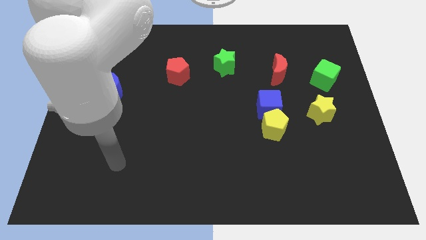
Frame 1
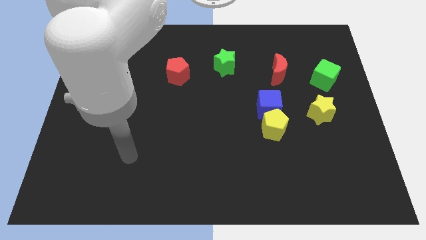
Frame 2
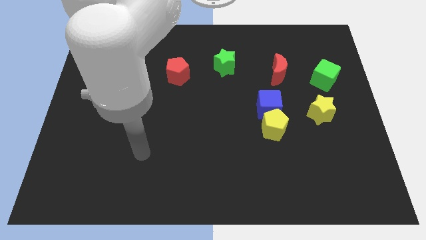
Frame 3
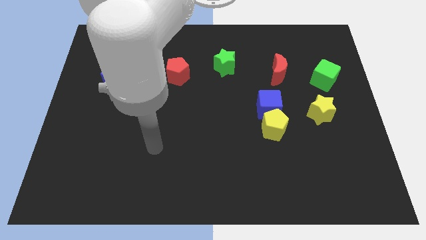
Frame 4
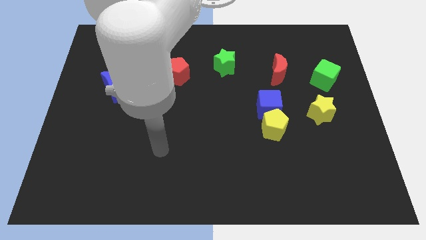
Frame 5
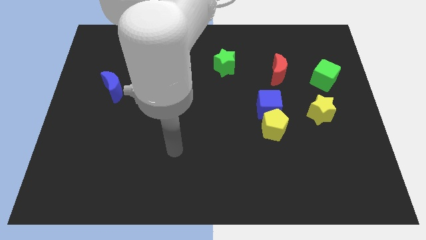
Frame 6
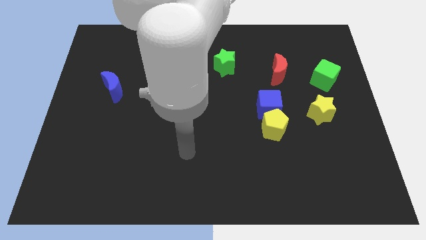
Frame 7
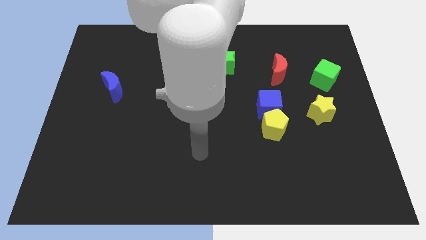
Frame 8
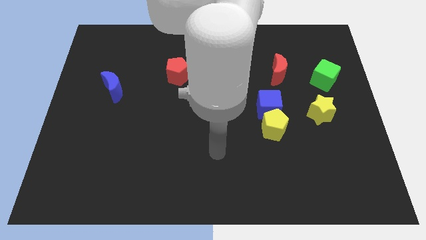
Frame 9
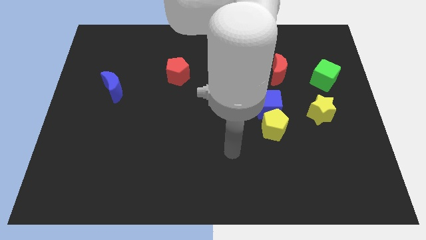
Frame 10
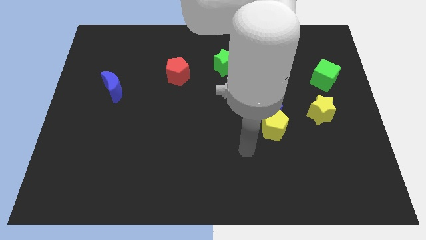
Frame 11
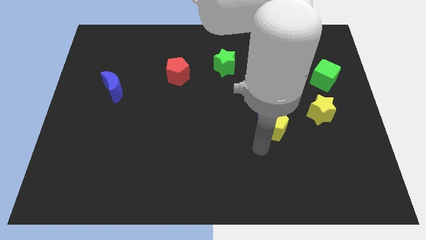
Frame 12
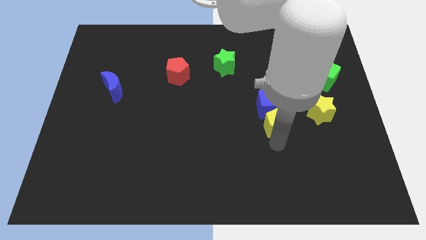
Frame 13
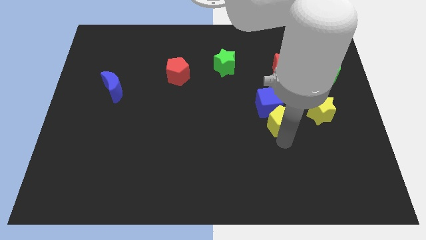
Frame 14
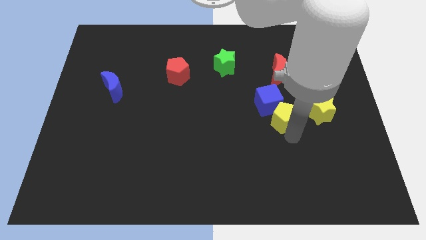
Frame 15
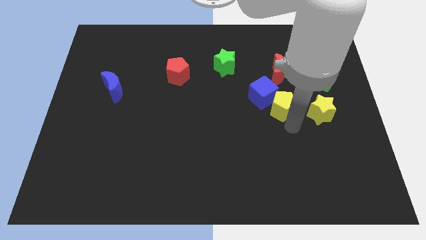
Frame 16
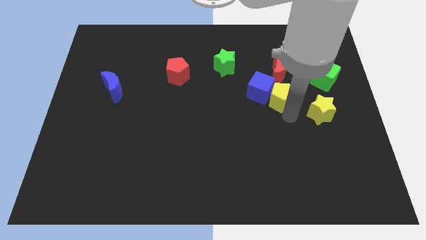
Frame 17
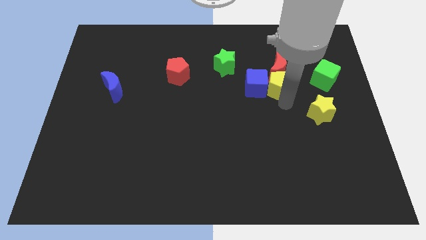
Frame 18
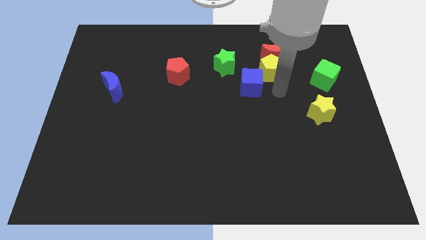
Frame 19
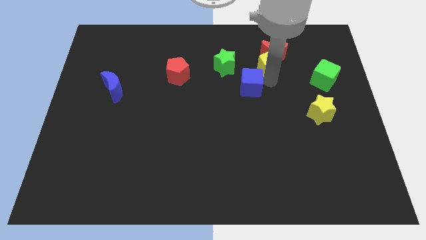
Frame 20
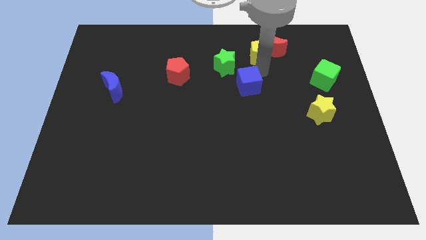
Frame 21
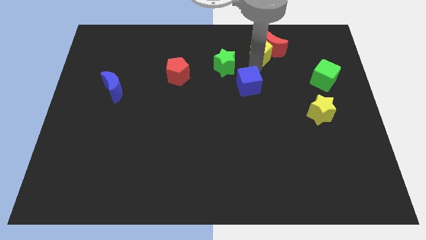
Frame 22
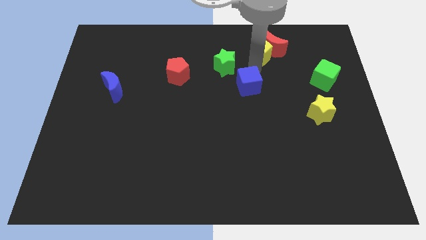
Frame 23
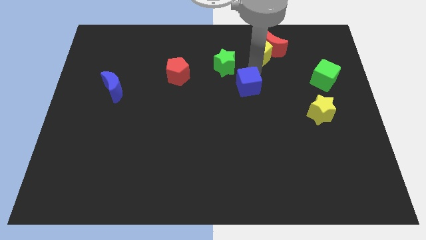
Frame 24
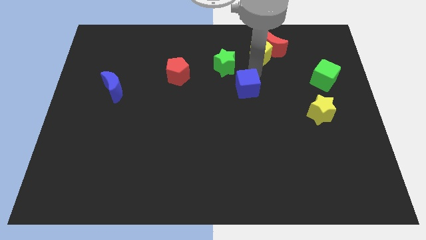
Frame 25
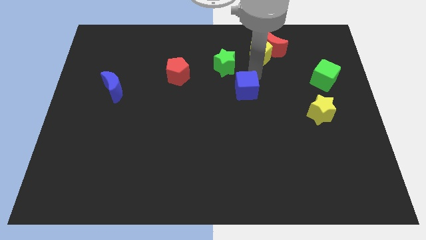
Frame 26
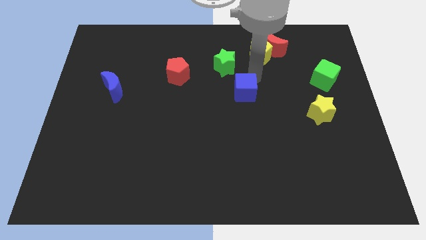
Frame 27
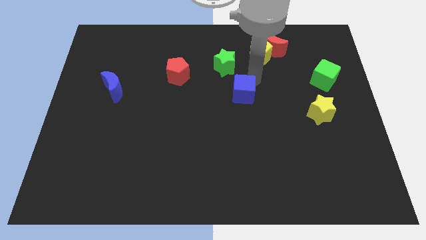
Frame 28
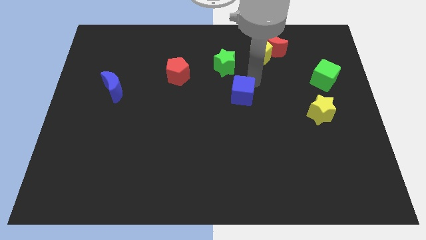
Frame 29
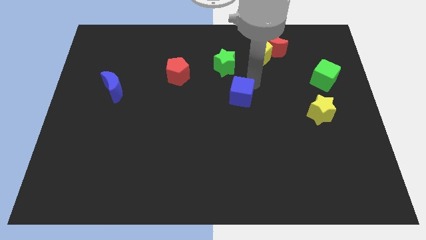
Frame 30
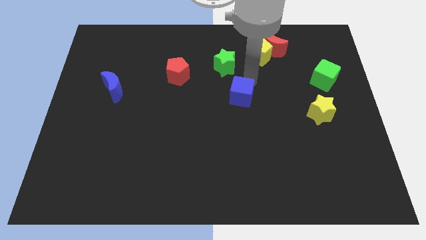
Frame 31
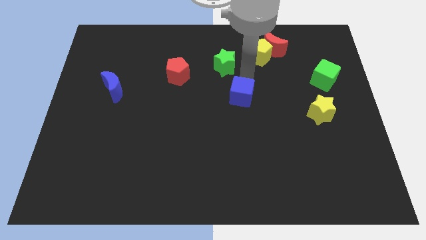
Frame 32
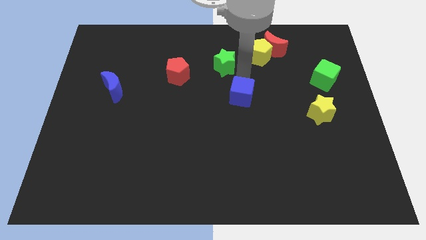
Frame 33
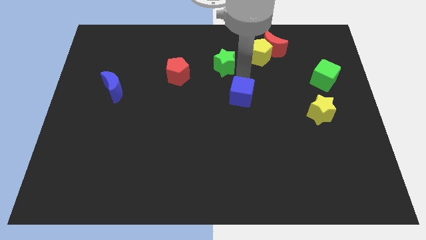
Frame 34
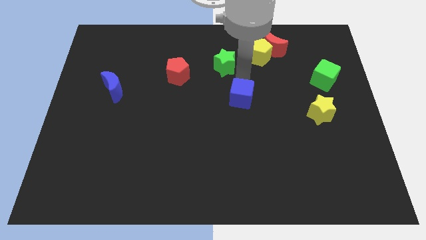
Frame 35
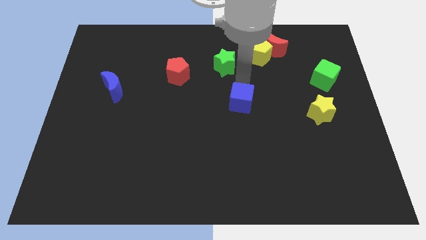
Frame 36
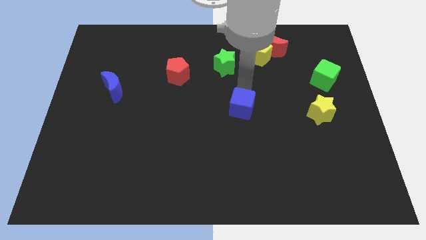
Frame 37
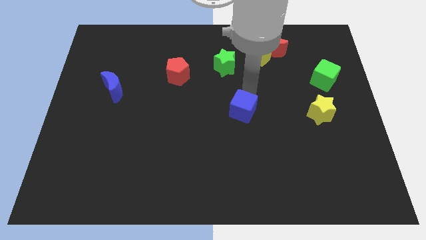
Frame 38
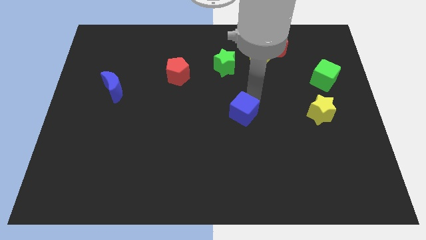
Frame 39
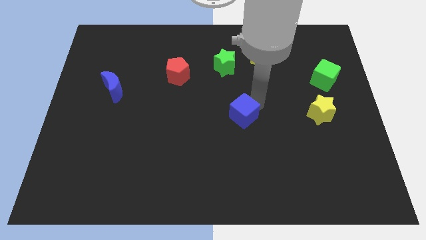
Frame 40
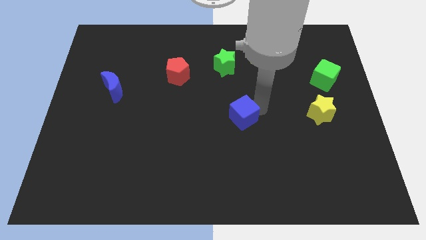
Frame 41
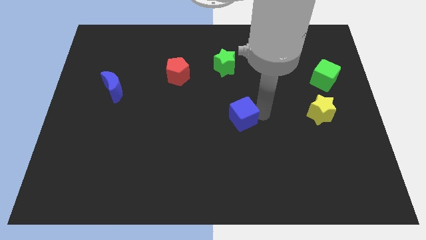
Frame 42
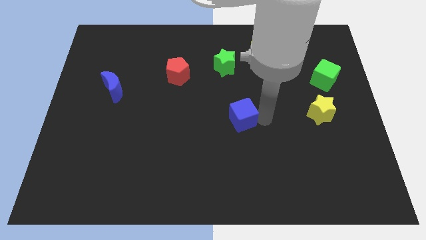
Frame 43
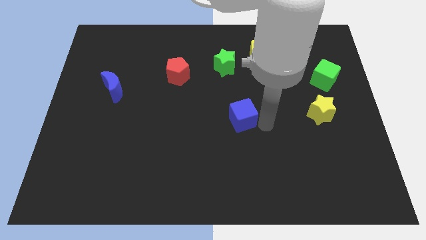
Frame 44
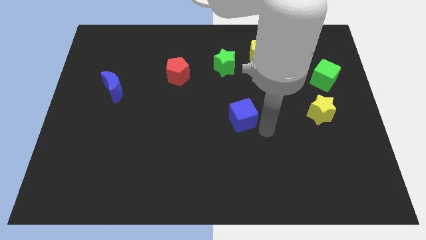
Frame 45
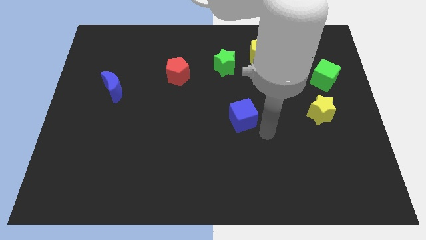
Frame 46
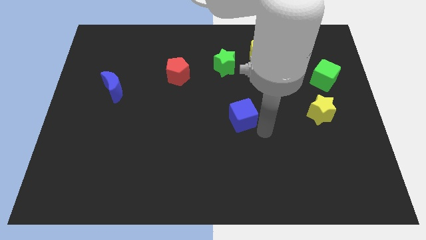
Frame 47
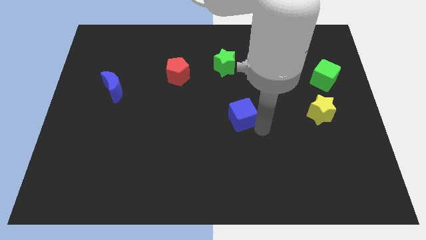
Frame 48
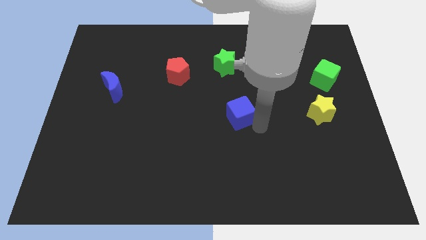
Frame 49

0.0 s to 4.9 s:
slightly move the blue cube left

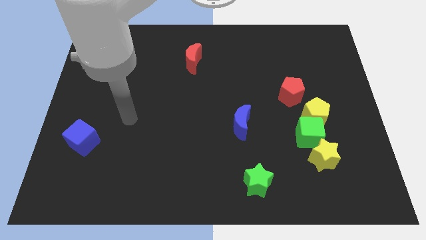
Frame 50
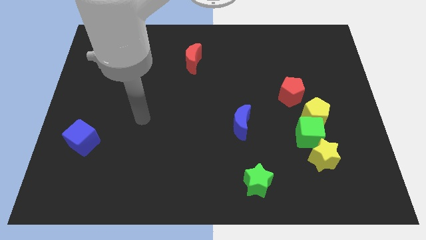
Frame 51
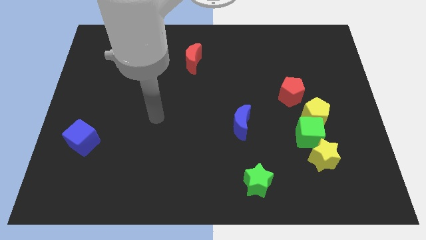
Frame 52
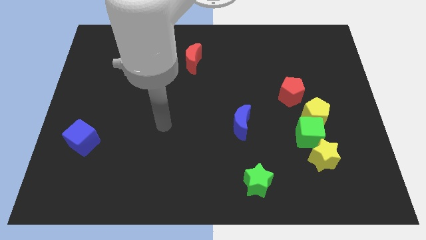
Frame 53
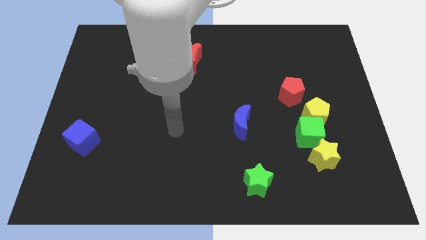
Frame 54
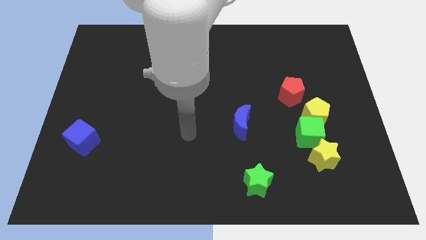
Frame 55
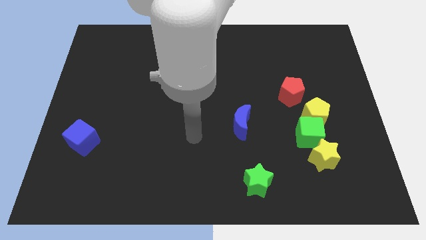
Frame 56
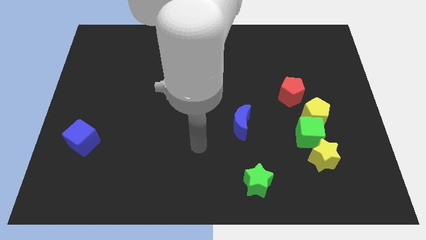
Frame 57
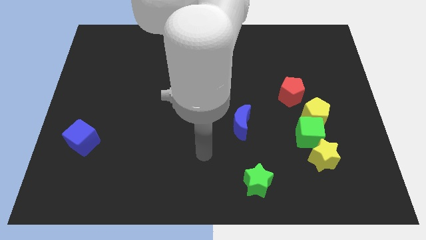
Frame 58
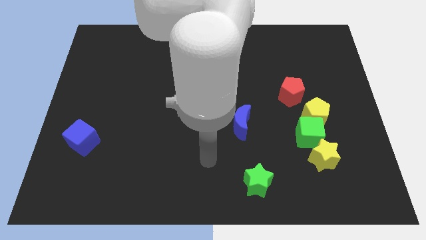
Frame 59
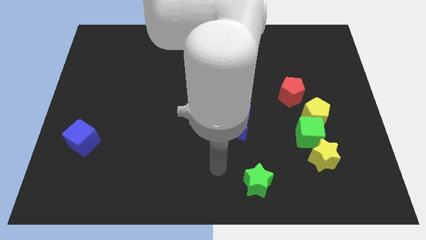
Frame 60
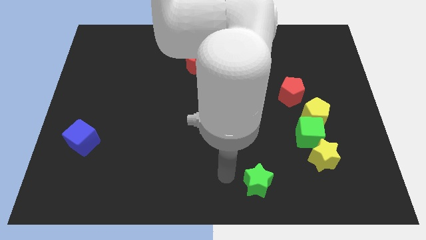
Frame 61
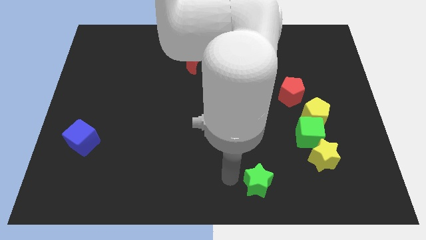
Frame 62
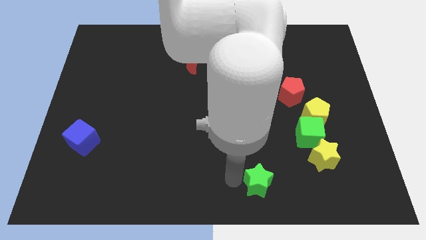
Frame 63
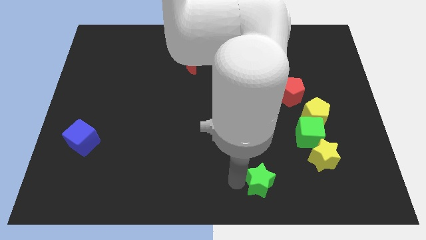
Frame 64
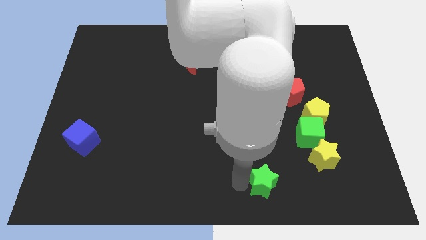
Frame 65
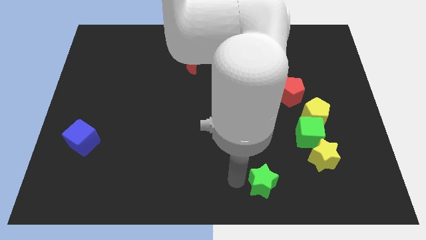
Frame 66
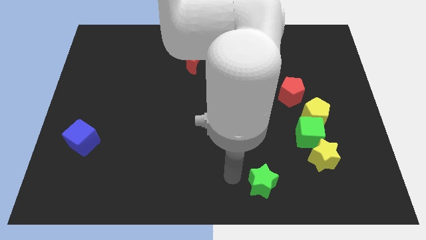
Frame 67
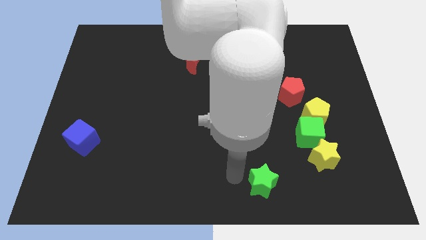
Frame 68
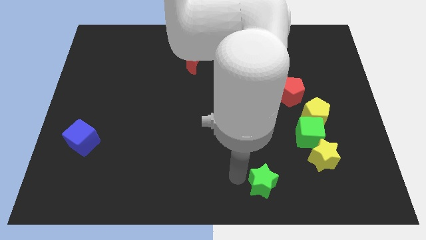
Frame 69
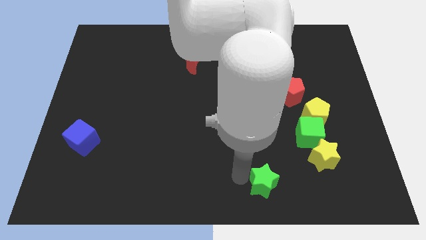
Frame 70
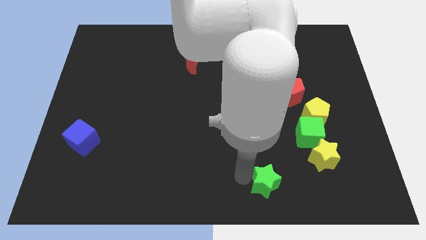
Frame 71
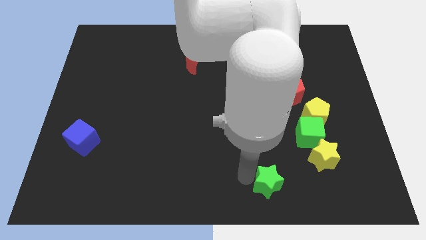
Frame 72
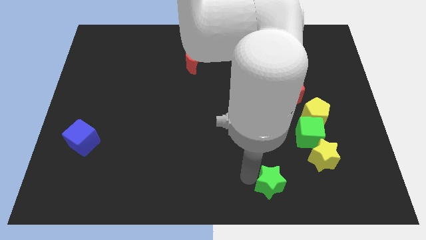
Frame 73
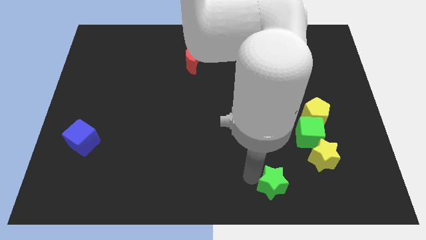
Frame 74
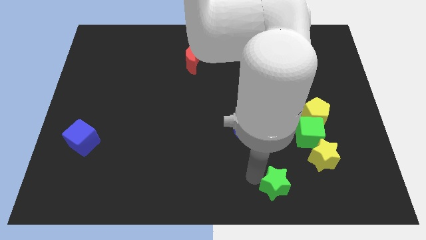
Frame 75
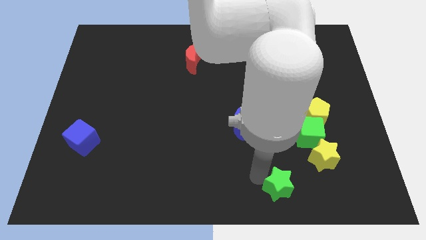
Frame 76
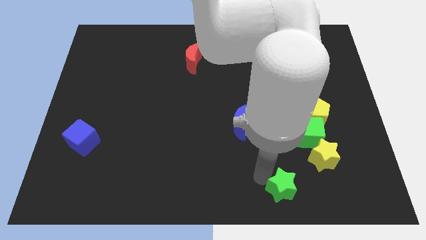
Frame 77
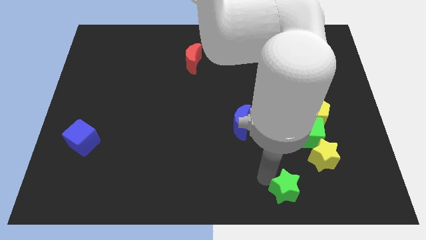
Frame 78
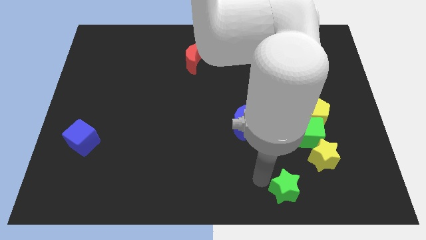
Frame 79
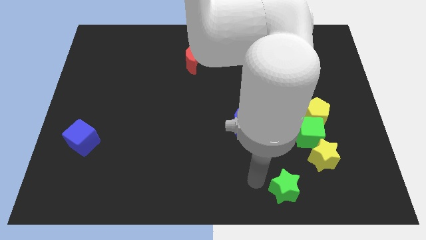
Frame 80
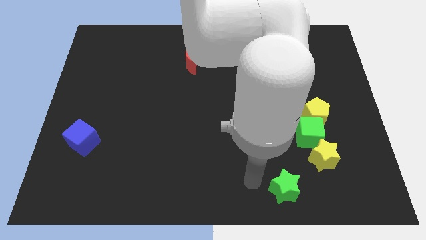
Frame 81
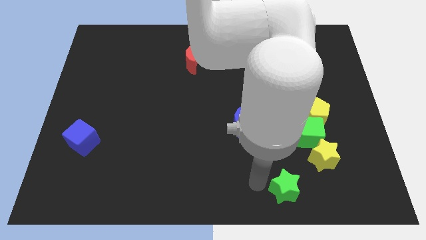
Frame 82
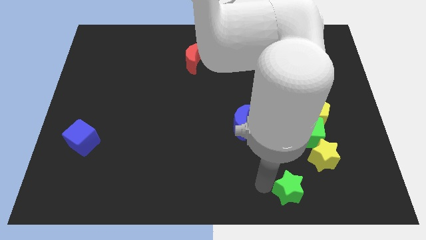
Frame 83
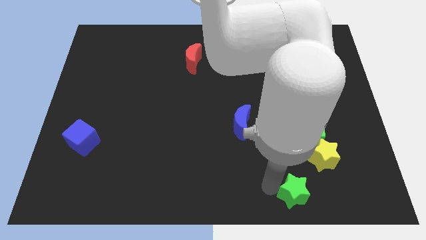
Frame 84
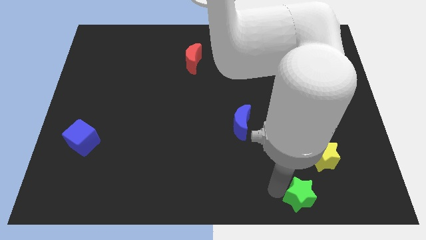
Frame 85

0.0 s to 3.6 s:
slightly slide the green star right
